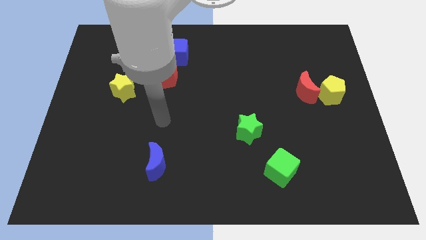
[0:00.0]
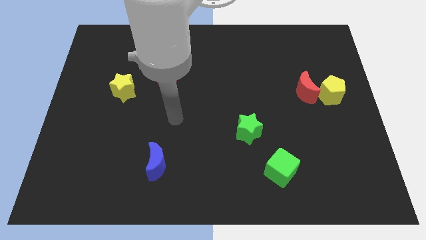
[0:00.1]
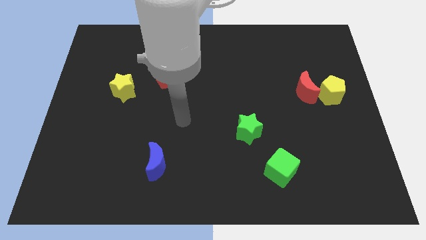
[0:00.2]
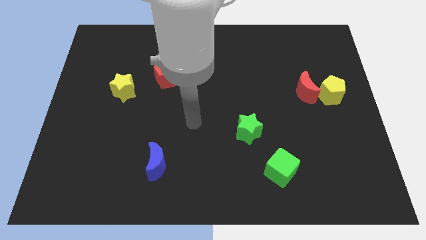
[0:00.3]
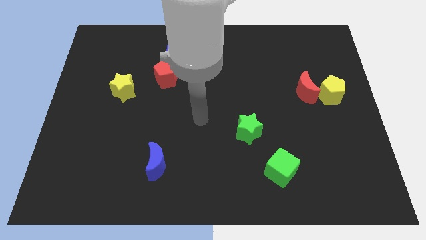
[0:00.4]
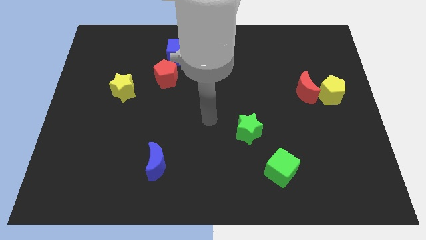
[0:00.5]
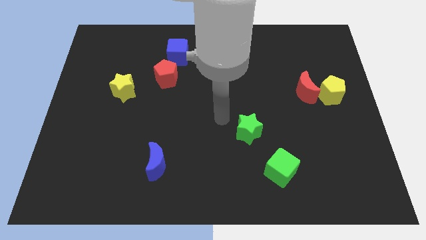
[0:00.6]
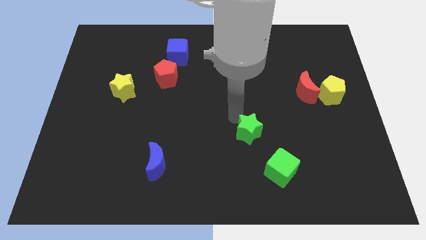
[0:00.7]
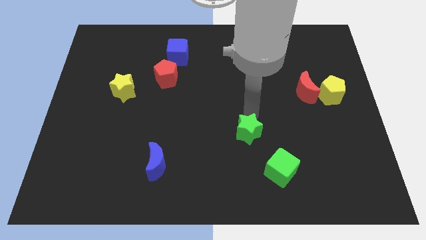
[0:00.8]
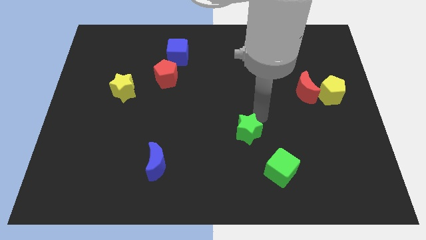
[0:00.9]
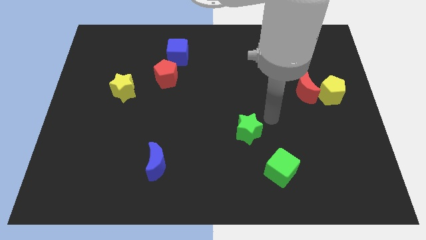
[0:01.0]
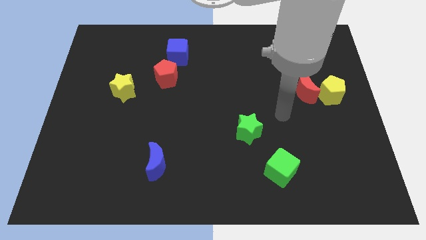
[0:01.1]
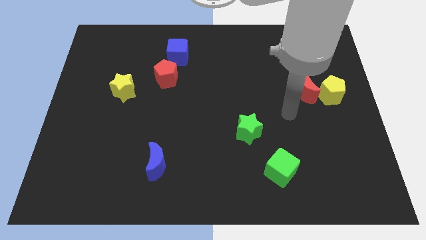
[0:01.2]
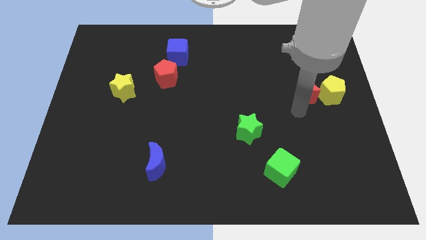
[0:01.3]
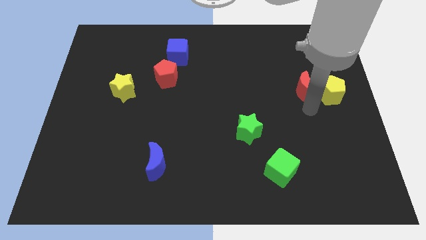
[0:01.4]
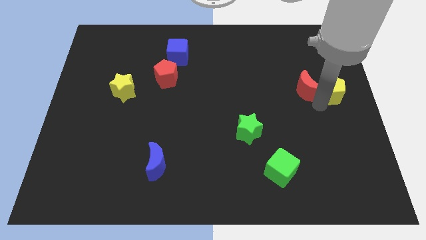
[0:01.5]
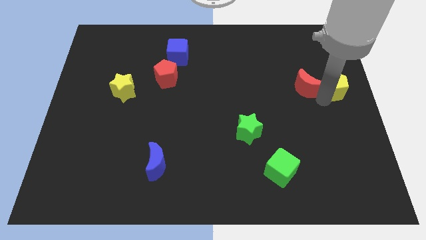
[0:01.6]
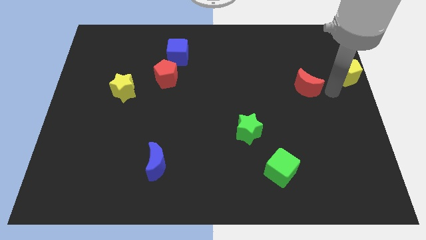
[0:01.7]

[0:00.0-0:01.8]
move the red moon away from the yellow pentagon

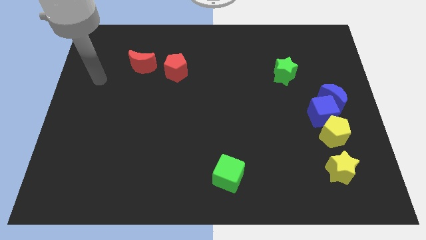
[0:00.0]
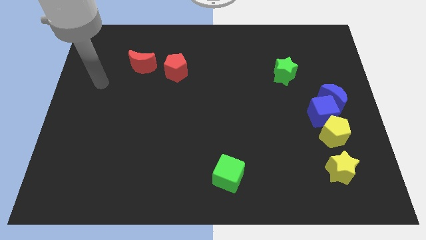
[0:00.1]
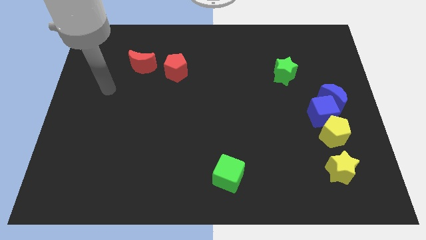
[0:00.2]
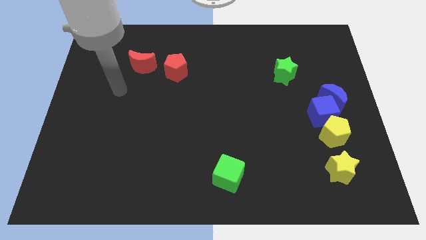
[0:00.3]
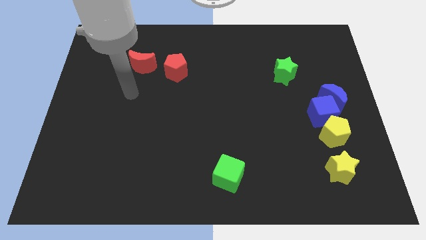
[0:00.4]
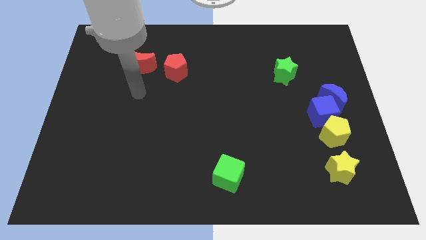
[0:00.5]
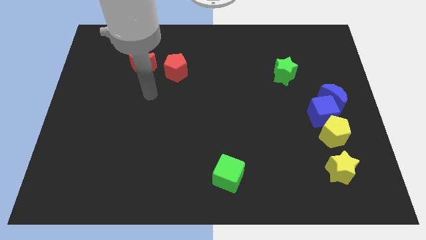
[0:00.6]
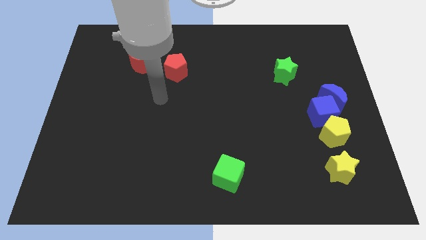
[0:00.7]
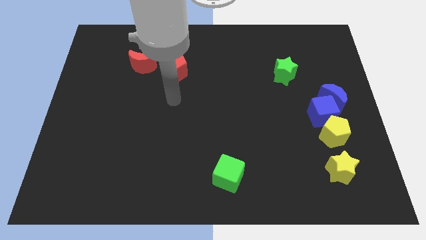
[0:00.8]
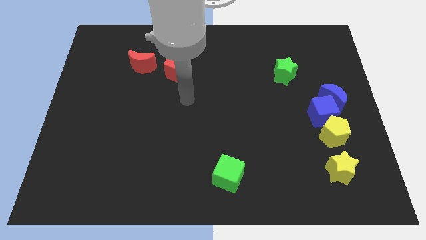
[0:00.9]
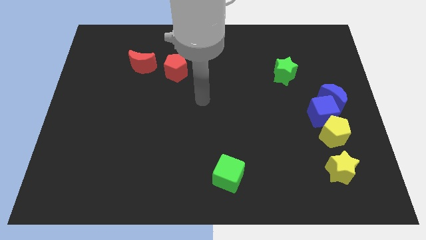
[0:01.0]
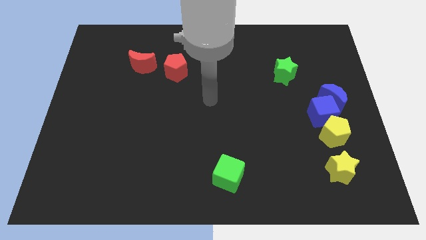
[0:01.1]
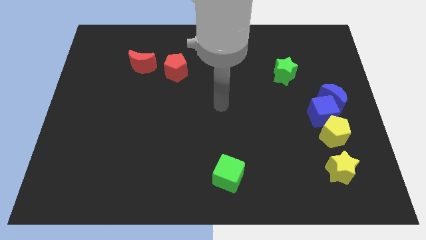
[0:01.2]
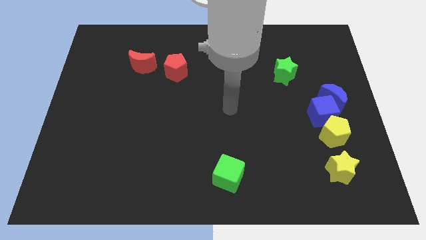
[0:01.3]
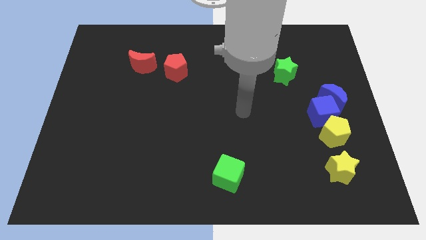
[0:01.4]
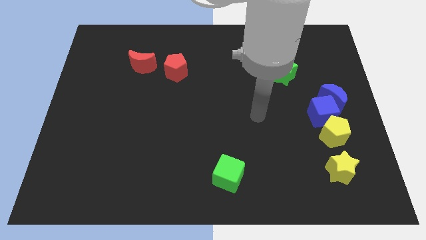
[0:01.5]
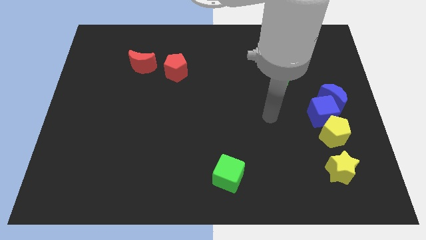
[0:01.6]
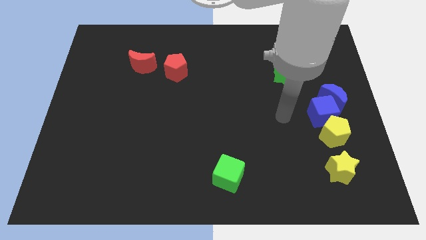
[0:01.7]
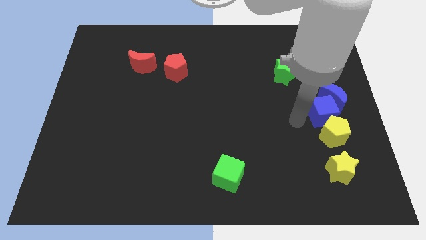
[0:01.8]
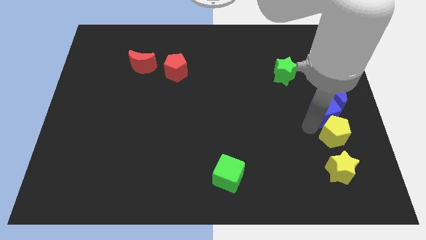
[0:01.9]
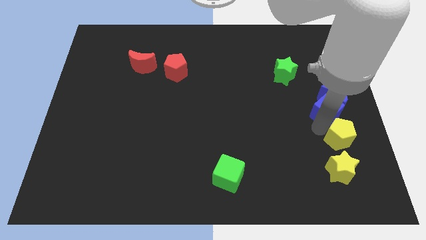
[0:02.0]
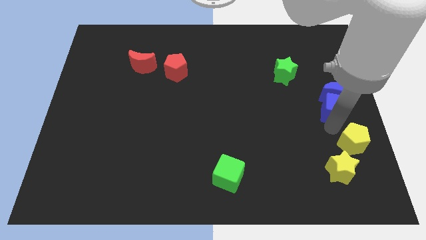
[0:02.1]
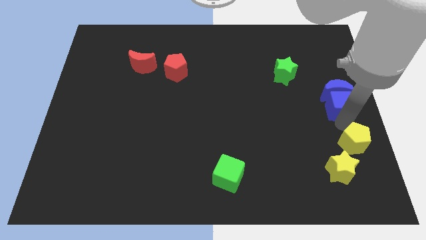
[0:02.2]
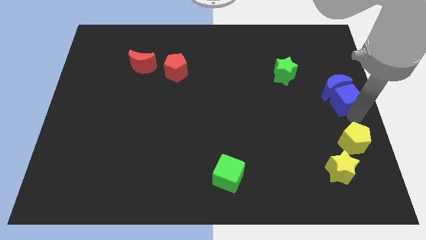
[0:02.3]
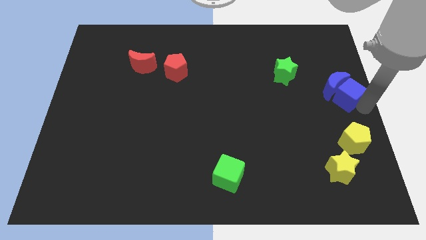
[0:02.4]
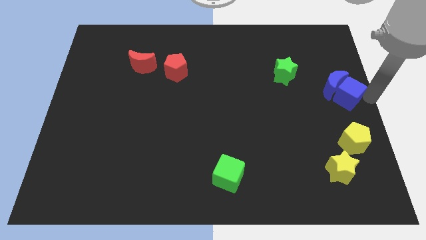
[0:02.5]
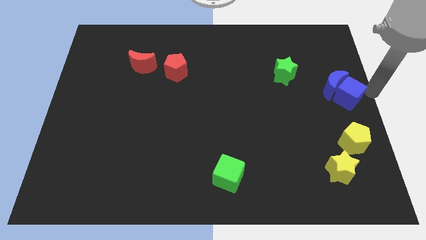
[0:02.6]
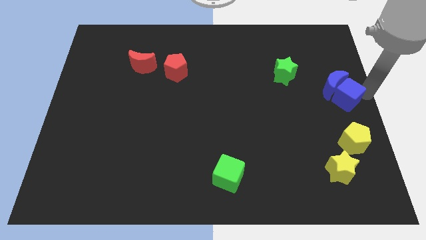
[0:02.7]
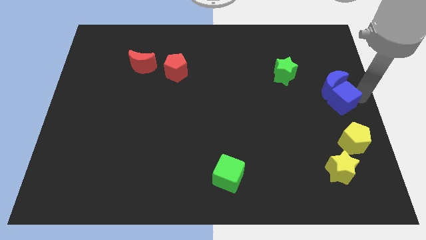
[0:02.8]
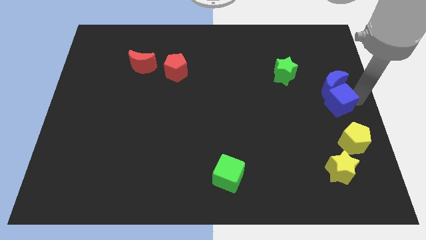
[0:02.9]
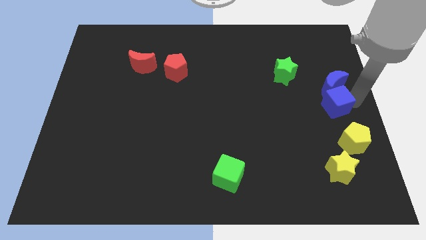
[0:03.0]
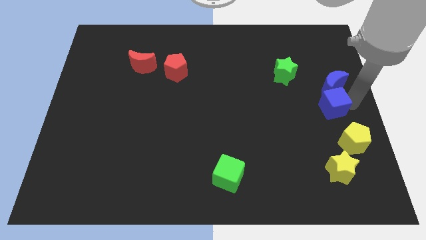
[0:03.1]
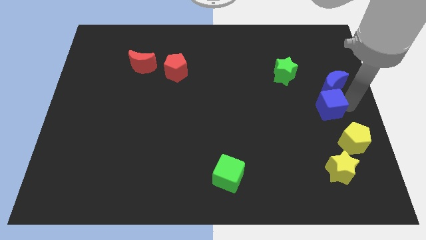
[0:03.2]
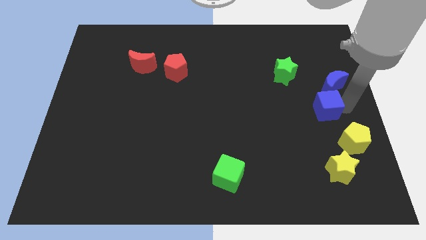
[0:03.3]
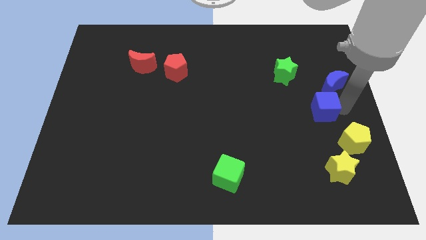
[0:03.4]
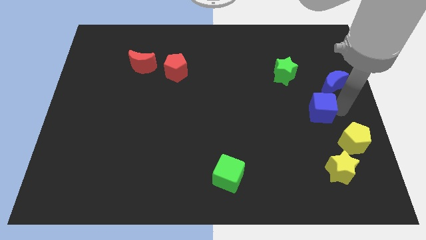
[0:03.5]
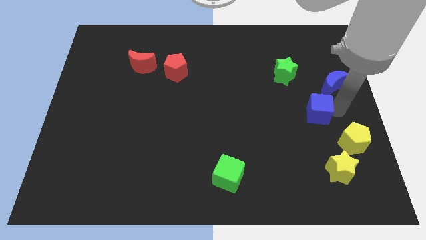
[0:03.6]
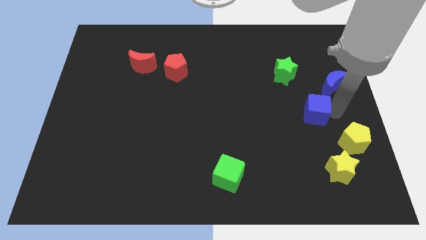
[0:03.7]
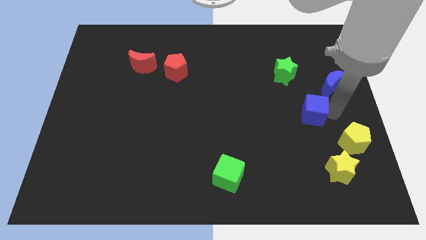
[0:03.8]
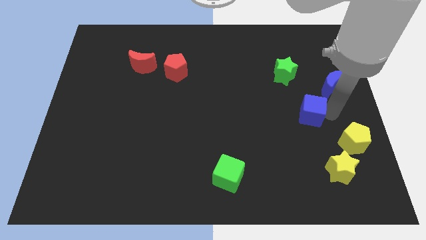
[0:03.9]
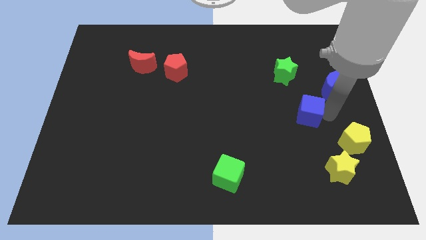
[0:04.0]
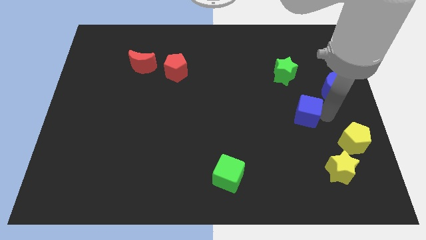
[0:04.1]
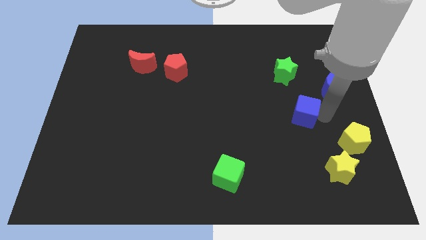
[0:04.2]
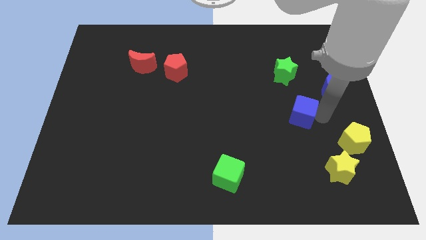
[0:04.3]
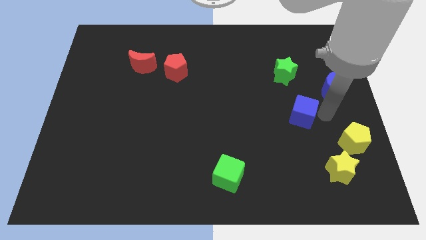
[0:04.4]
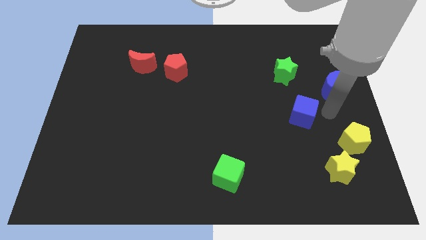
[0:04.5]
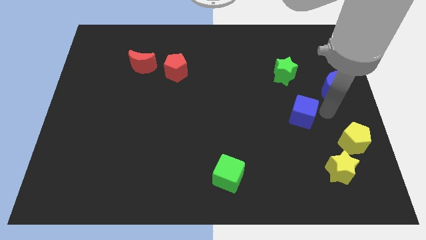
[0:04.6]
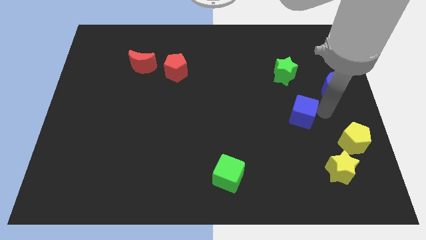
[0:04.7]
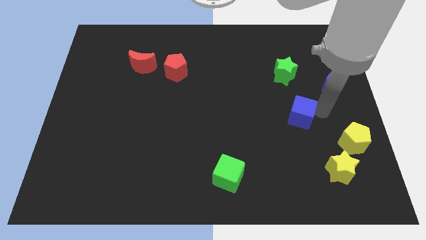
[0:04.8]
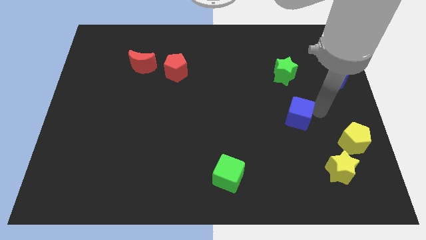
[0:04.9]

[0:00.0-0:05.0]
separate the blue cube from the blue moon and yellow pentagon

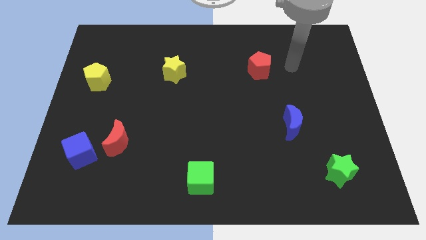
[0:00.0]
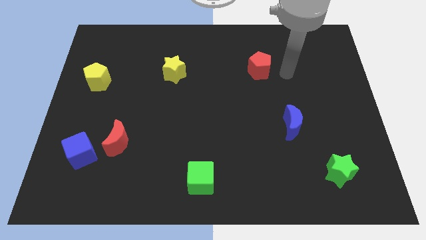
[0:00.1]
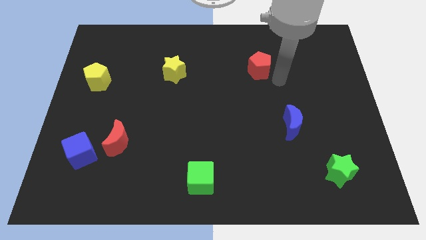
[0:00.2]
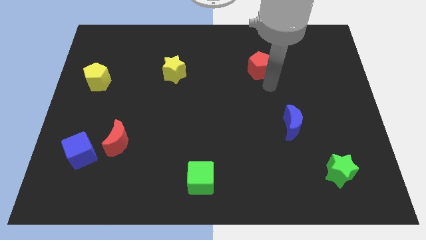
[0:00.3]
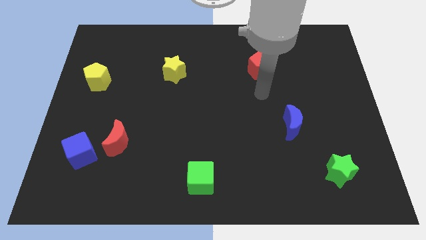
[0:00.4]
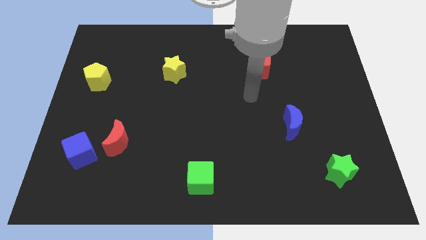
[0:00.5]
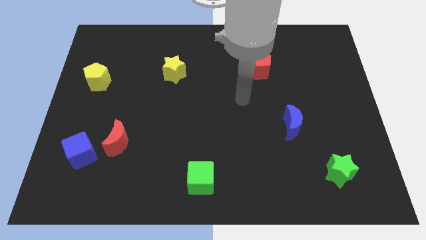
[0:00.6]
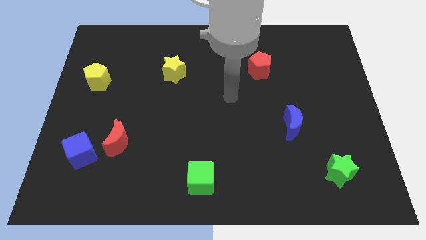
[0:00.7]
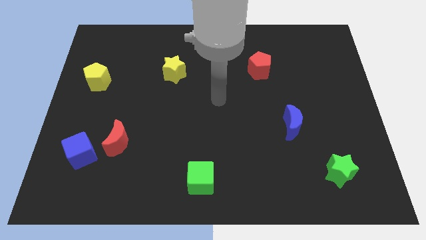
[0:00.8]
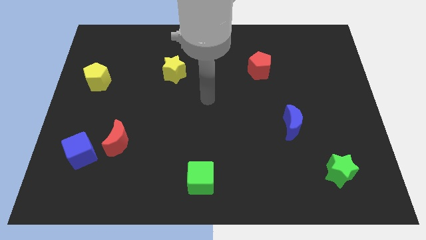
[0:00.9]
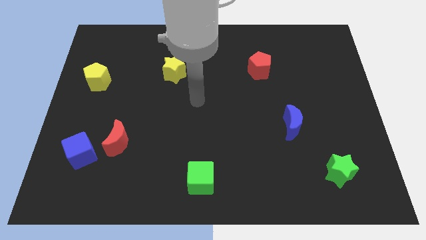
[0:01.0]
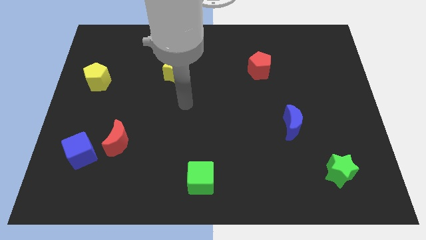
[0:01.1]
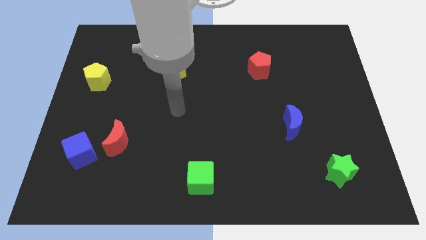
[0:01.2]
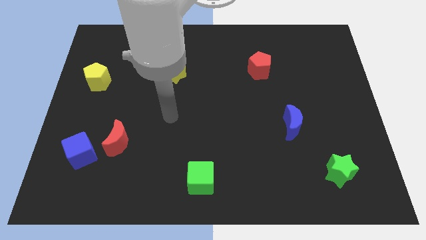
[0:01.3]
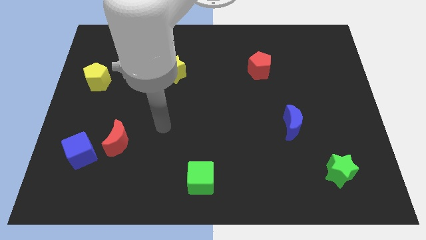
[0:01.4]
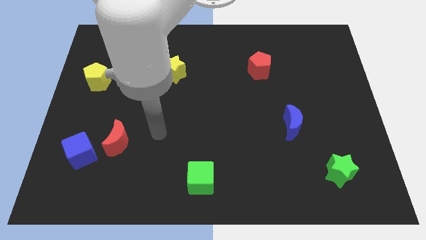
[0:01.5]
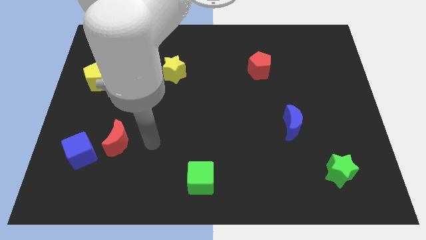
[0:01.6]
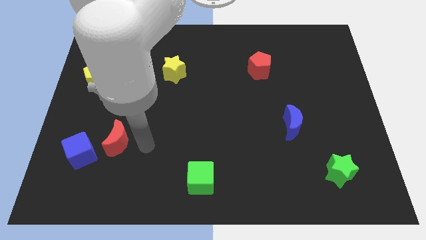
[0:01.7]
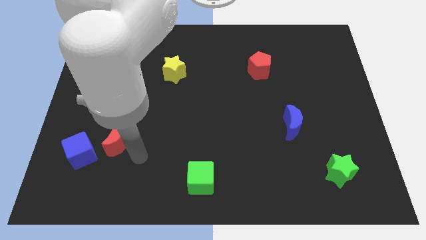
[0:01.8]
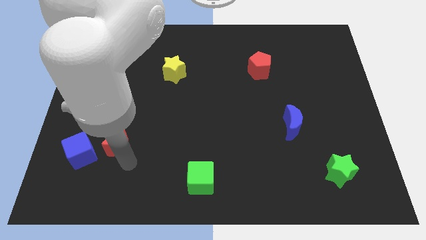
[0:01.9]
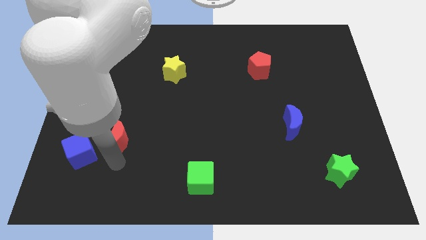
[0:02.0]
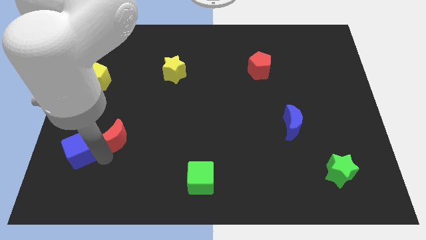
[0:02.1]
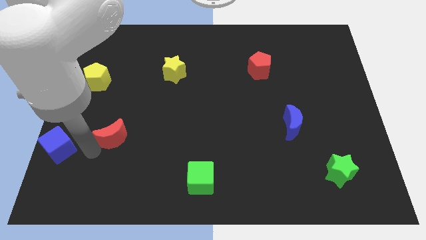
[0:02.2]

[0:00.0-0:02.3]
move the red moon away from the blue cube
